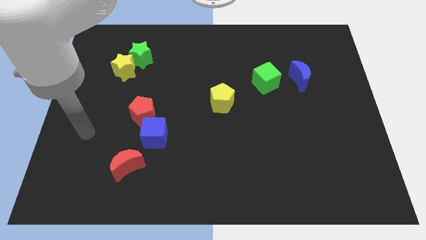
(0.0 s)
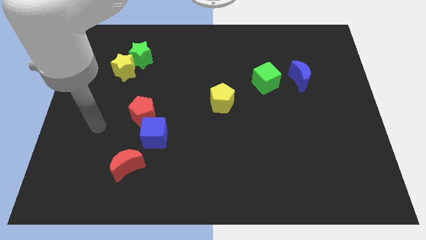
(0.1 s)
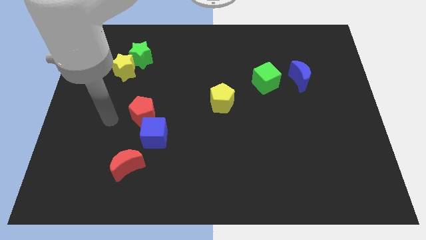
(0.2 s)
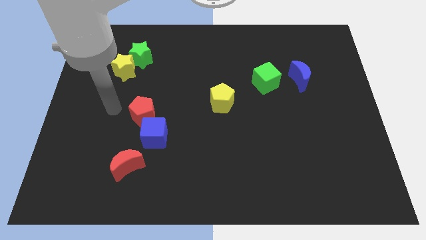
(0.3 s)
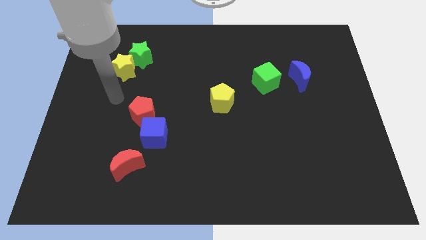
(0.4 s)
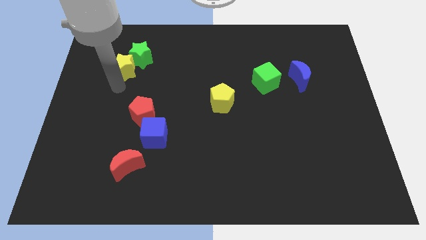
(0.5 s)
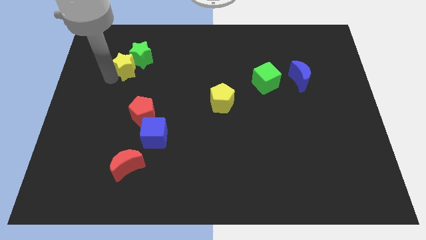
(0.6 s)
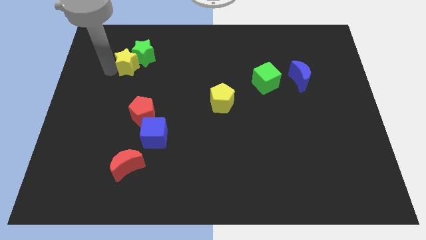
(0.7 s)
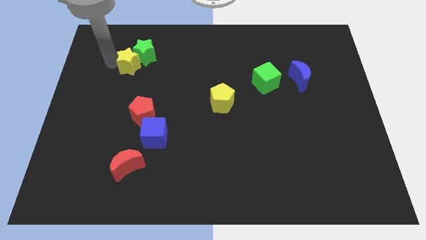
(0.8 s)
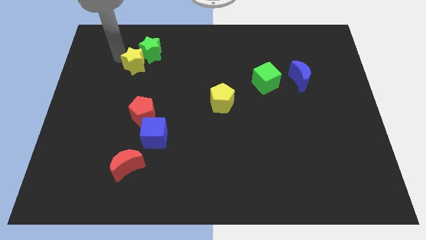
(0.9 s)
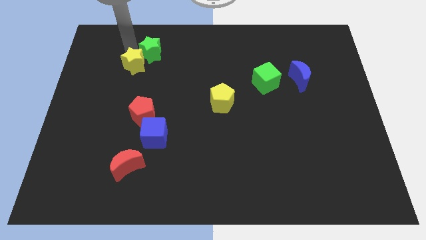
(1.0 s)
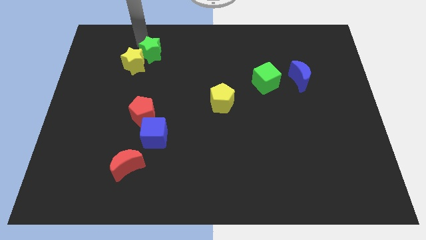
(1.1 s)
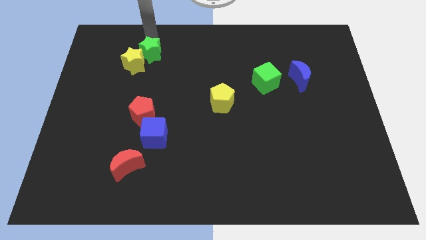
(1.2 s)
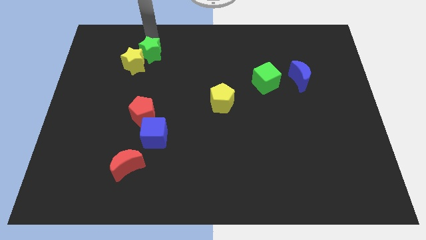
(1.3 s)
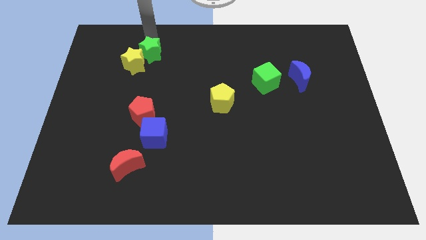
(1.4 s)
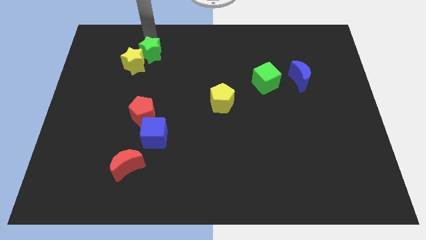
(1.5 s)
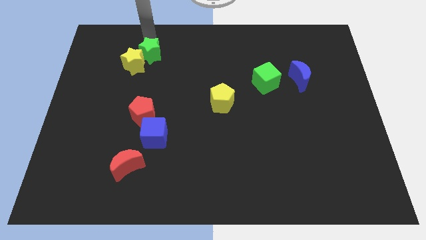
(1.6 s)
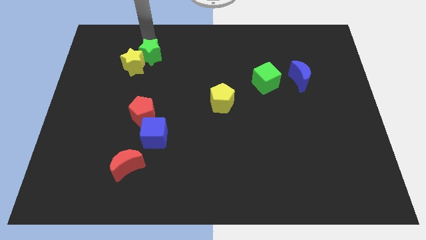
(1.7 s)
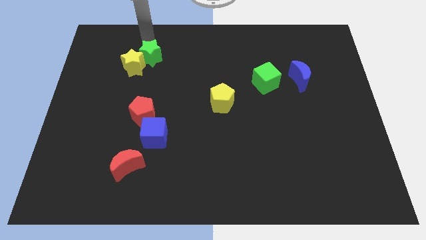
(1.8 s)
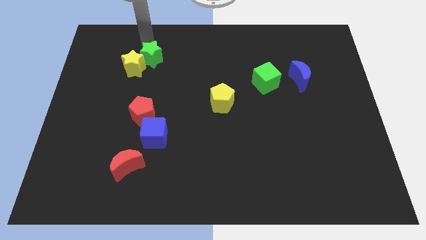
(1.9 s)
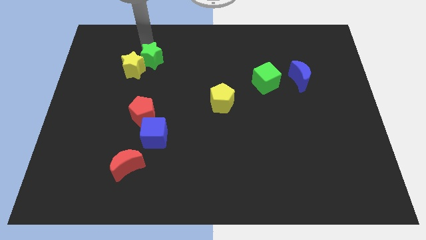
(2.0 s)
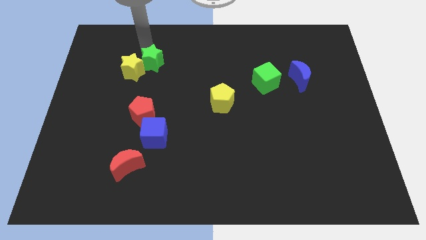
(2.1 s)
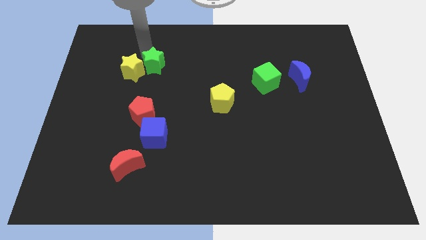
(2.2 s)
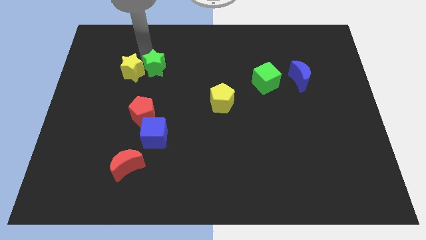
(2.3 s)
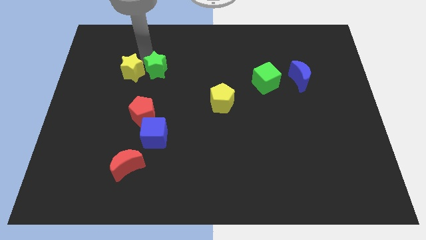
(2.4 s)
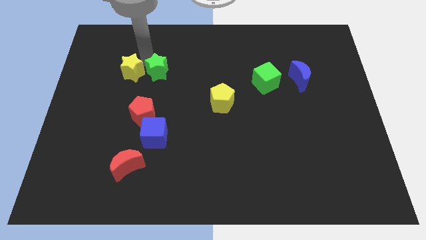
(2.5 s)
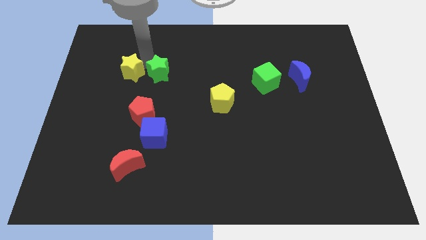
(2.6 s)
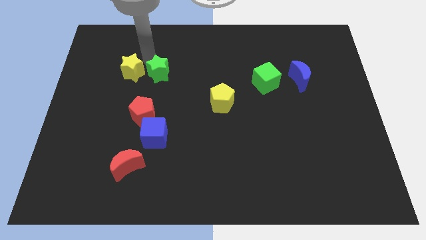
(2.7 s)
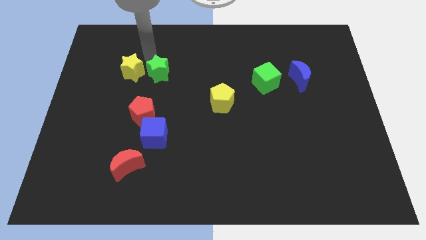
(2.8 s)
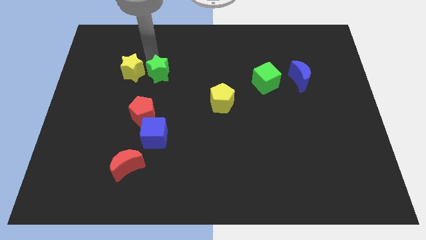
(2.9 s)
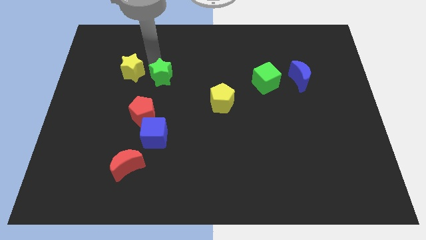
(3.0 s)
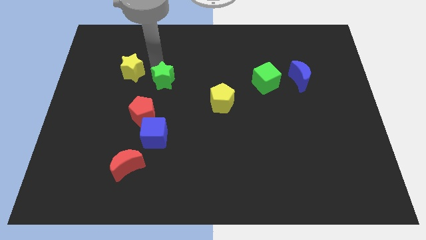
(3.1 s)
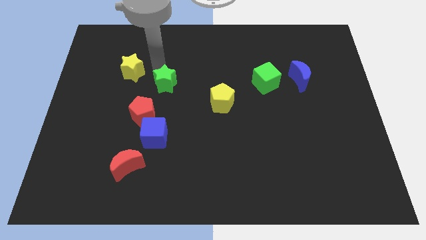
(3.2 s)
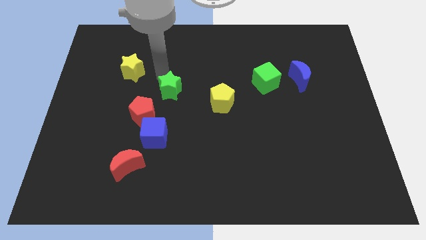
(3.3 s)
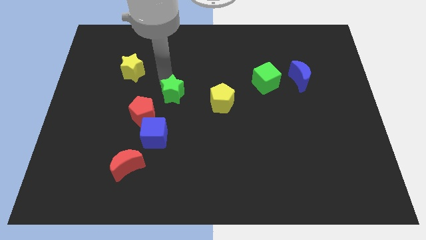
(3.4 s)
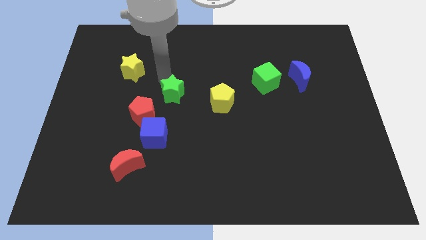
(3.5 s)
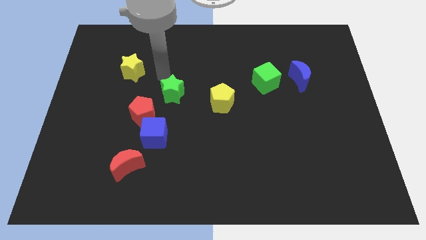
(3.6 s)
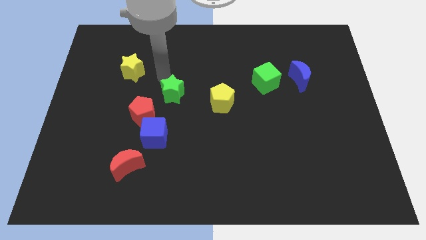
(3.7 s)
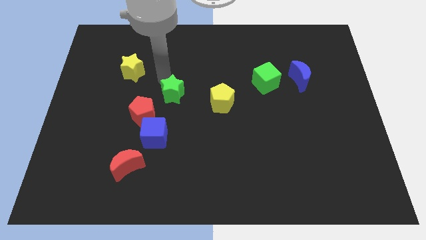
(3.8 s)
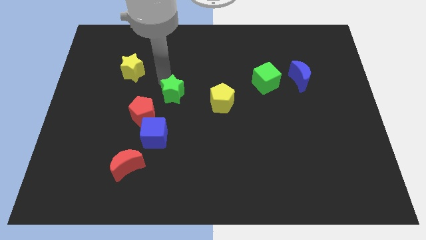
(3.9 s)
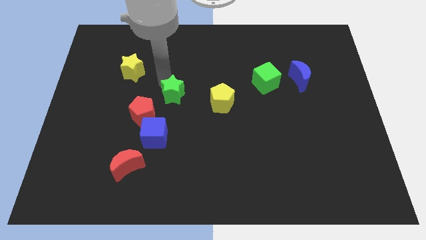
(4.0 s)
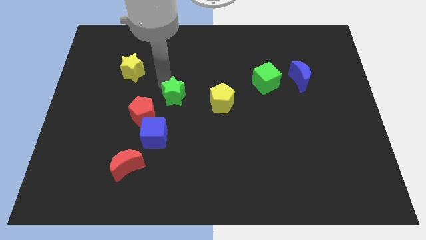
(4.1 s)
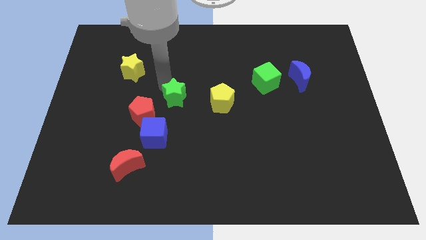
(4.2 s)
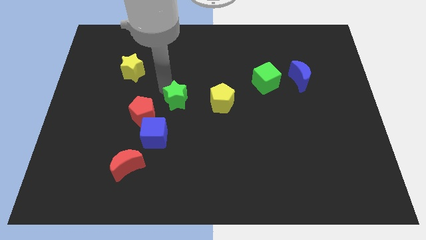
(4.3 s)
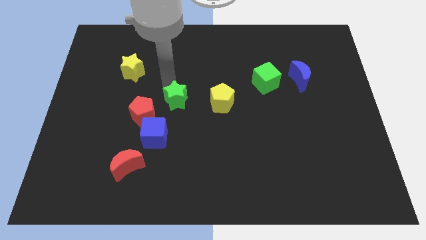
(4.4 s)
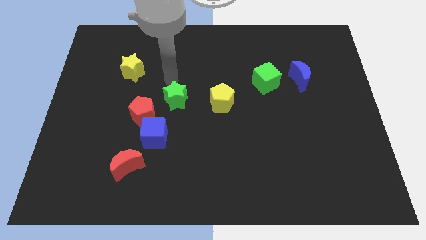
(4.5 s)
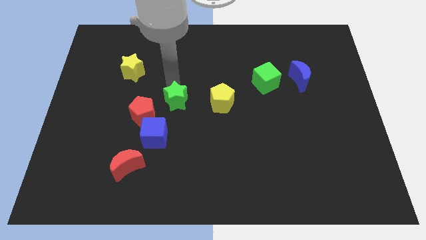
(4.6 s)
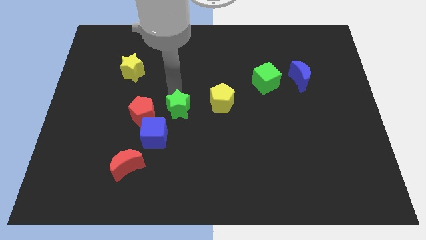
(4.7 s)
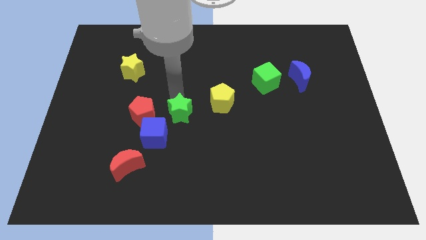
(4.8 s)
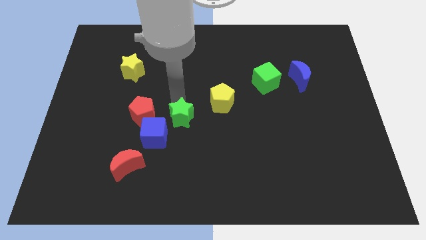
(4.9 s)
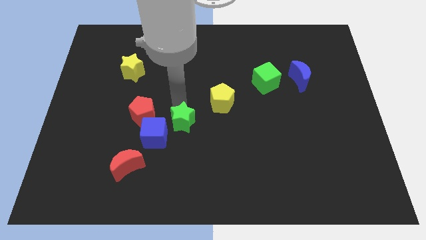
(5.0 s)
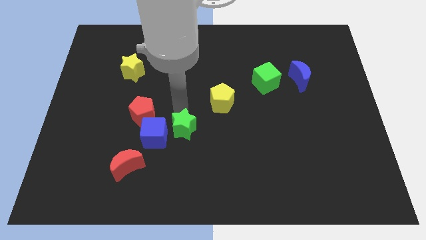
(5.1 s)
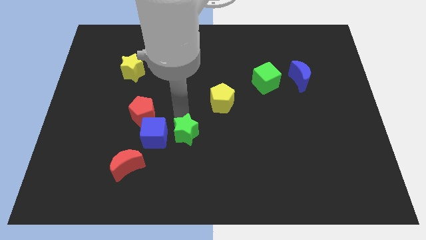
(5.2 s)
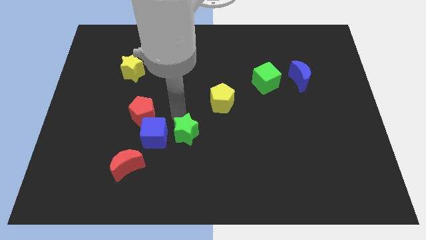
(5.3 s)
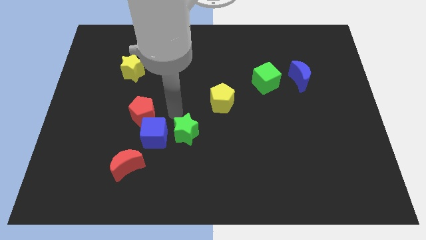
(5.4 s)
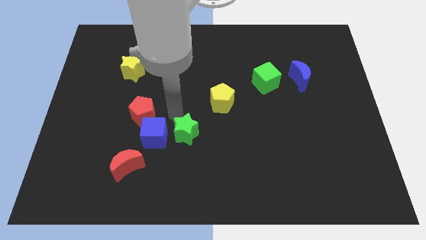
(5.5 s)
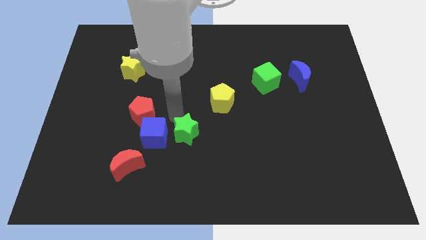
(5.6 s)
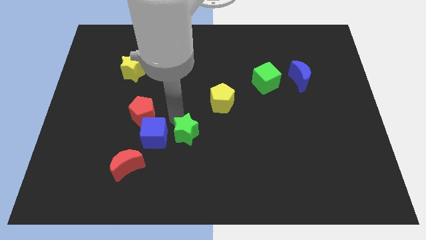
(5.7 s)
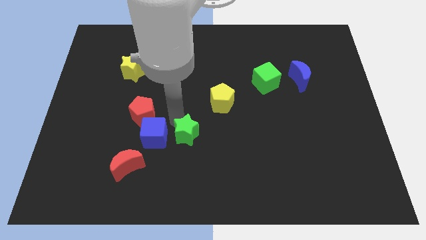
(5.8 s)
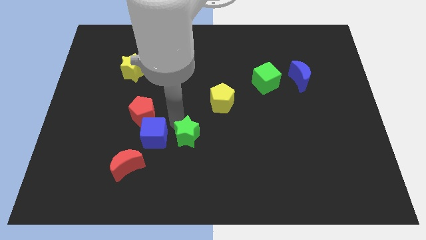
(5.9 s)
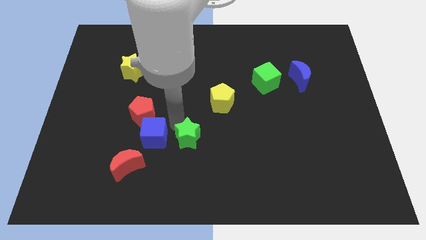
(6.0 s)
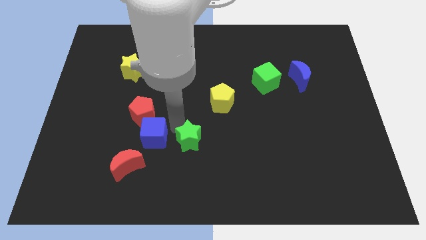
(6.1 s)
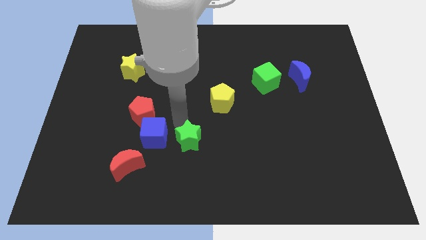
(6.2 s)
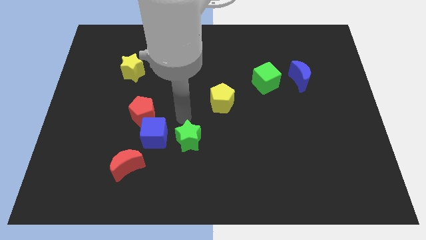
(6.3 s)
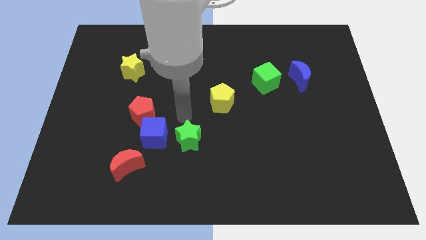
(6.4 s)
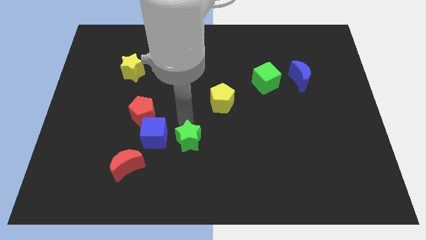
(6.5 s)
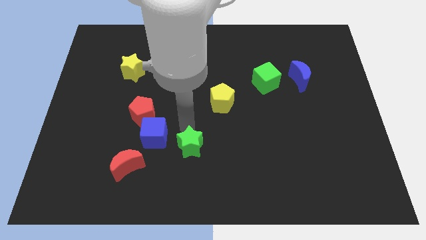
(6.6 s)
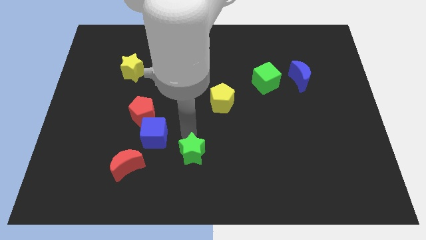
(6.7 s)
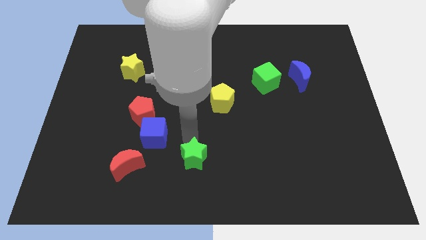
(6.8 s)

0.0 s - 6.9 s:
push the green star to the bottom side

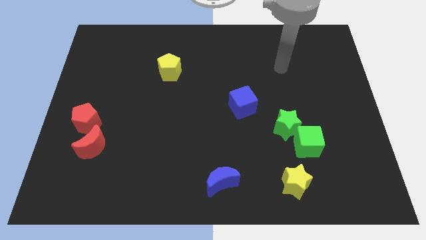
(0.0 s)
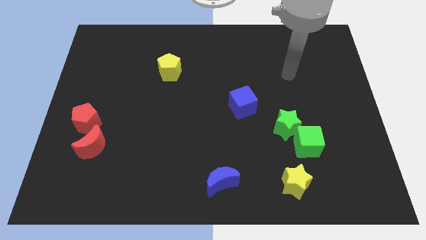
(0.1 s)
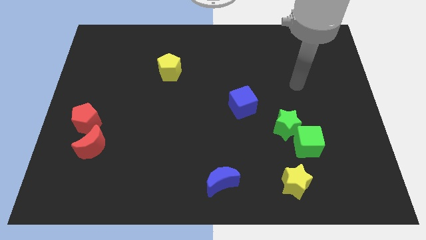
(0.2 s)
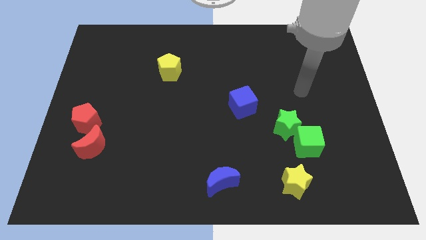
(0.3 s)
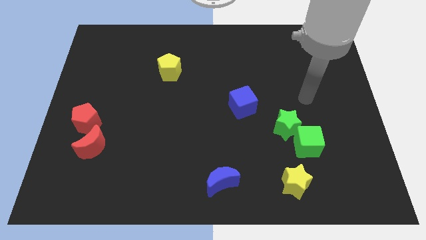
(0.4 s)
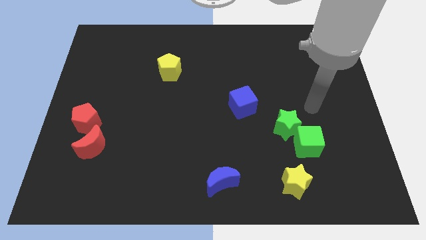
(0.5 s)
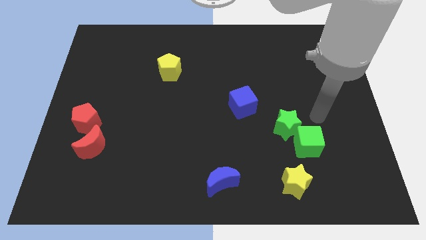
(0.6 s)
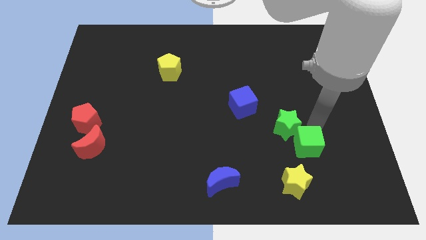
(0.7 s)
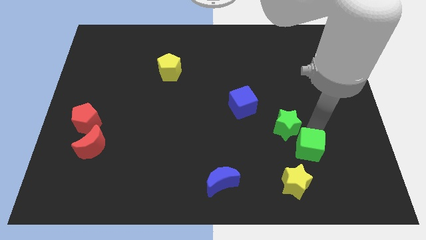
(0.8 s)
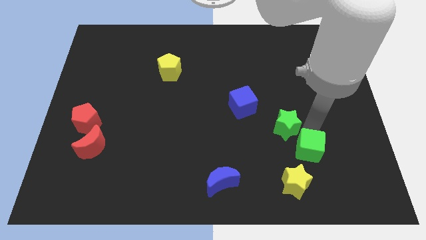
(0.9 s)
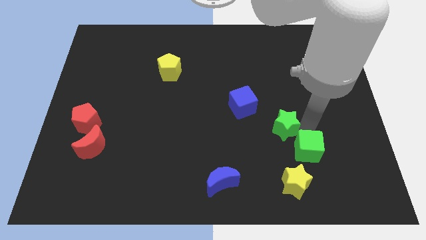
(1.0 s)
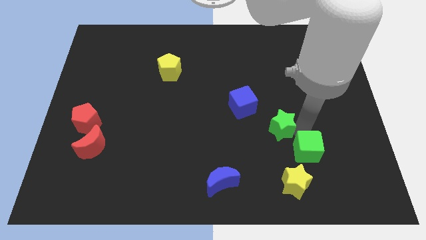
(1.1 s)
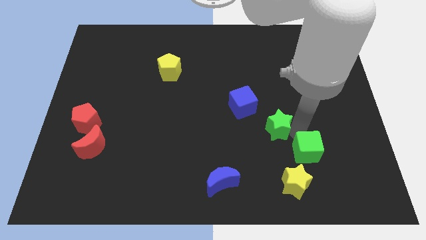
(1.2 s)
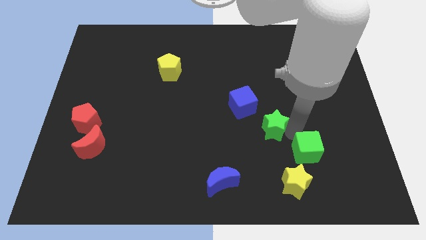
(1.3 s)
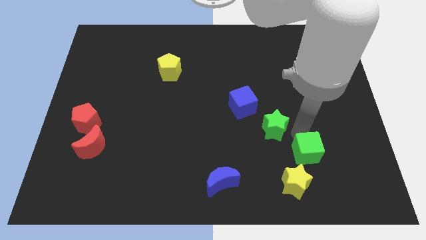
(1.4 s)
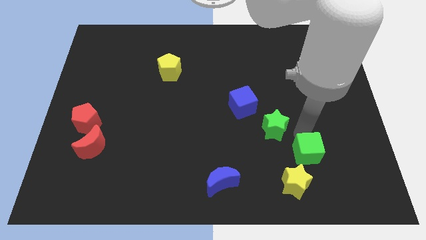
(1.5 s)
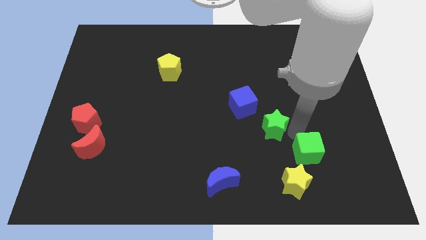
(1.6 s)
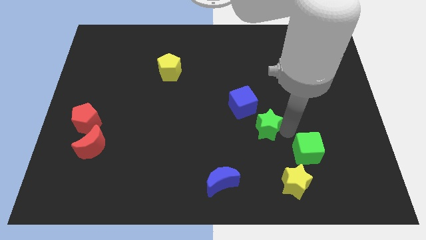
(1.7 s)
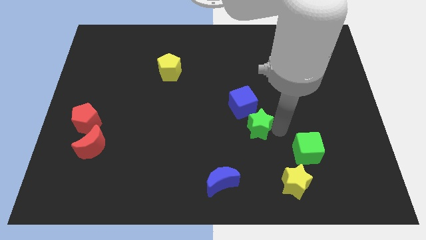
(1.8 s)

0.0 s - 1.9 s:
push the green star to the center
